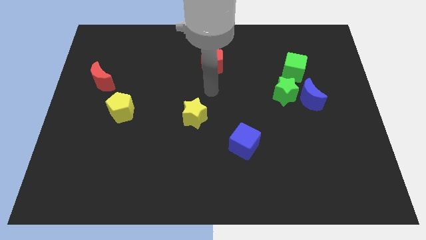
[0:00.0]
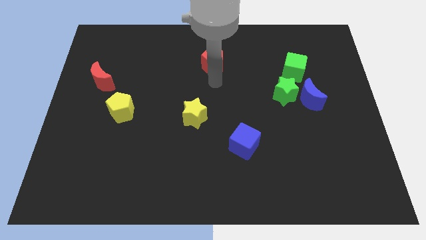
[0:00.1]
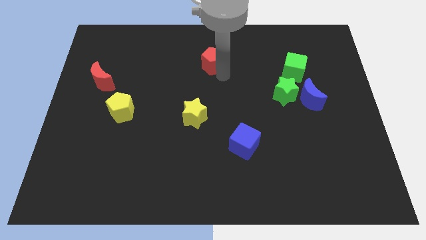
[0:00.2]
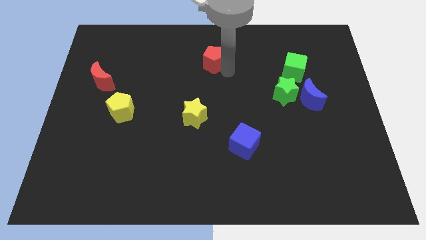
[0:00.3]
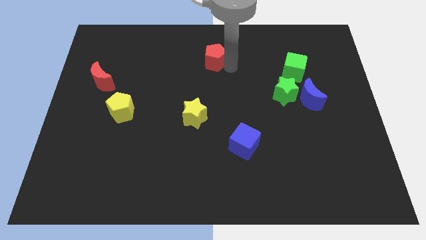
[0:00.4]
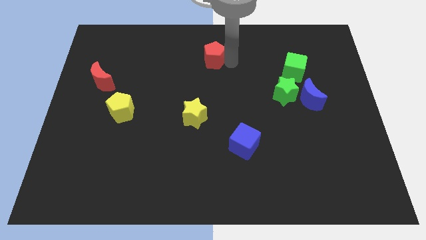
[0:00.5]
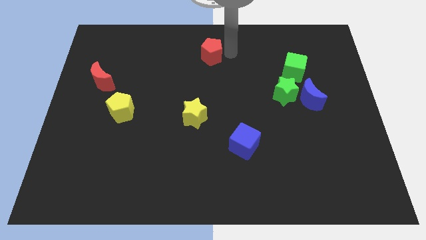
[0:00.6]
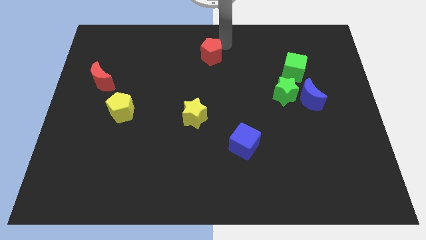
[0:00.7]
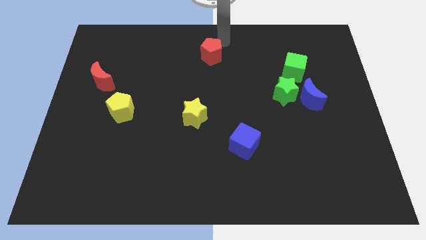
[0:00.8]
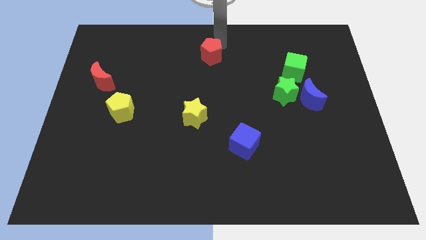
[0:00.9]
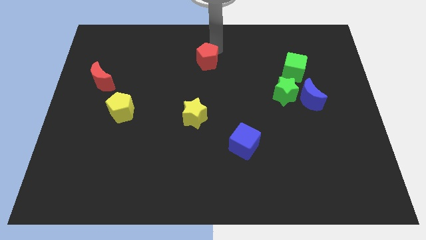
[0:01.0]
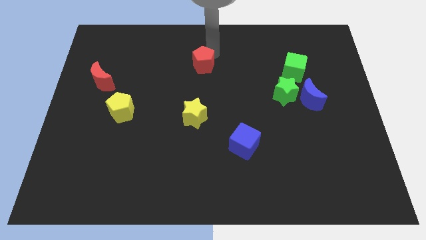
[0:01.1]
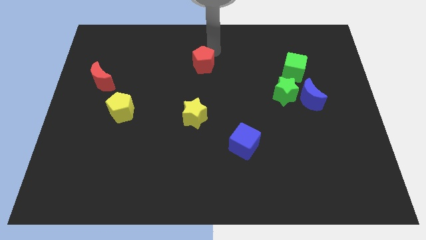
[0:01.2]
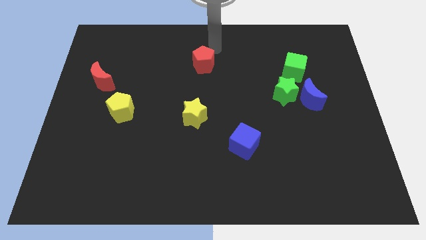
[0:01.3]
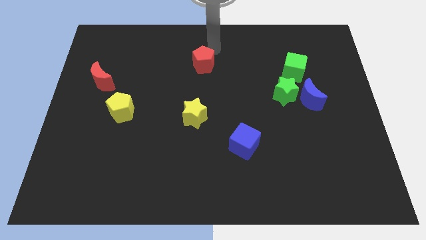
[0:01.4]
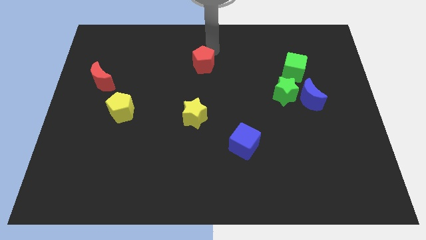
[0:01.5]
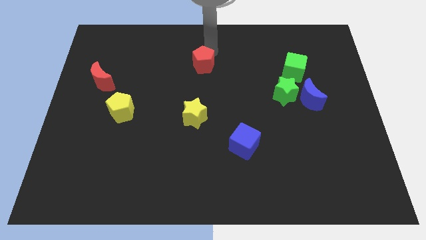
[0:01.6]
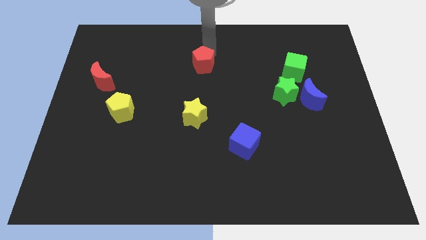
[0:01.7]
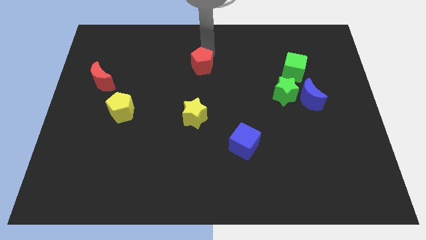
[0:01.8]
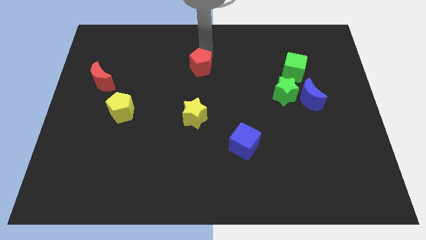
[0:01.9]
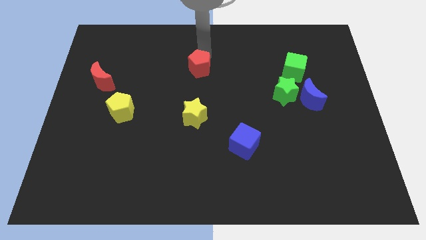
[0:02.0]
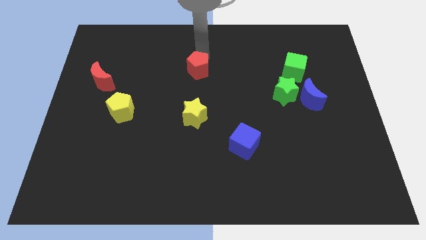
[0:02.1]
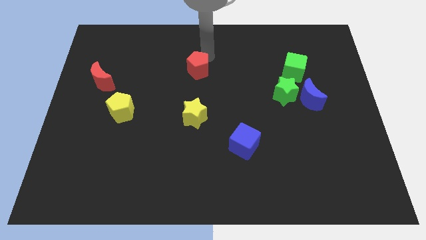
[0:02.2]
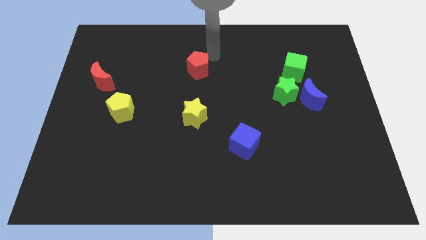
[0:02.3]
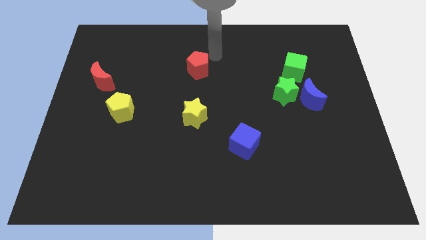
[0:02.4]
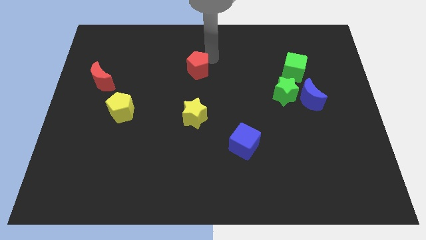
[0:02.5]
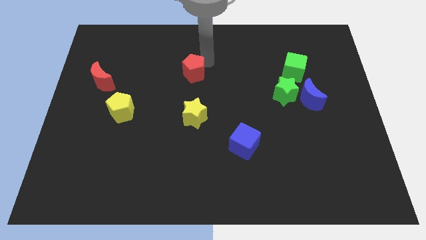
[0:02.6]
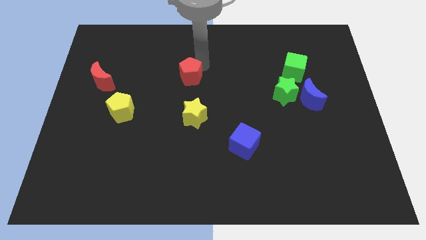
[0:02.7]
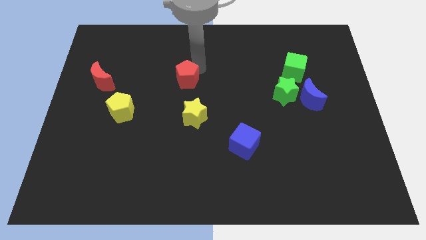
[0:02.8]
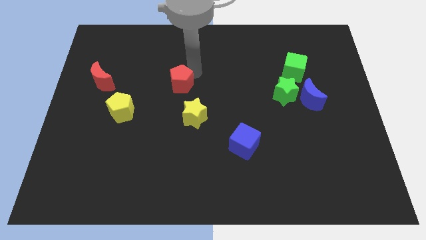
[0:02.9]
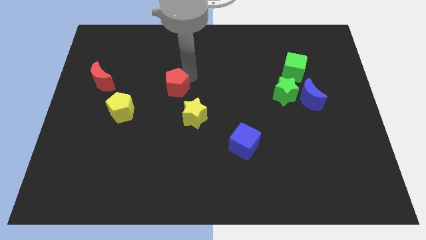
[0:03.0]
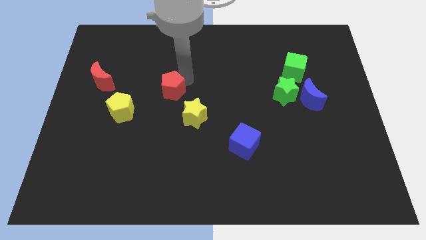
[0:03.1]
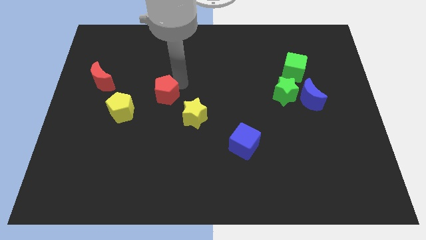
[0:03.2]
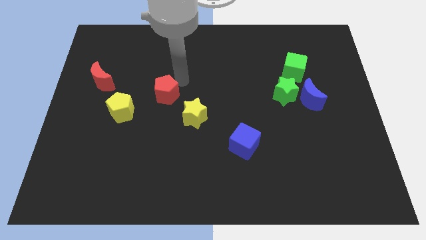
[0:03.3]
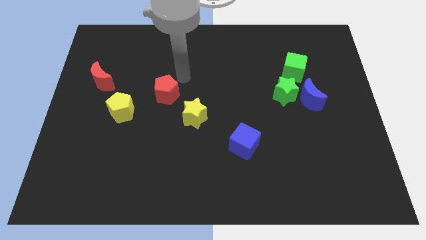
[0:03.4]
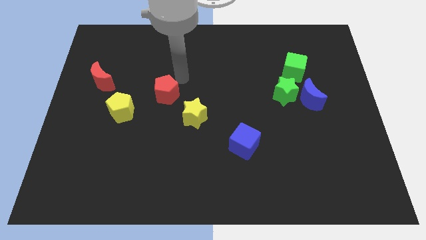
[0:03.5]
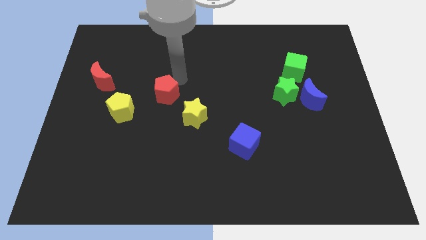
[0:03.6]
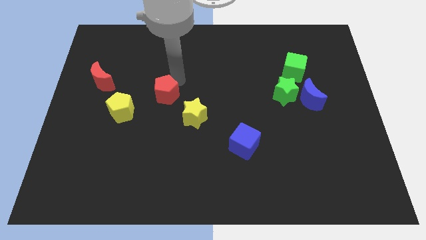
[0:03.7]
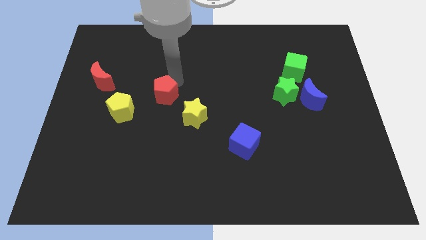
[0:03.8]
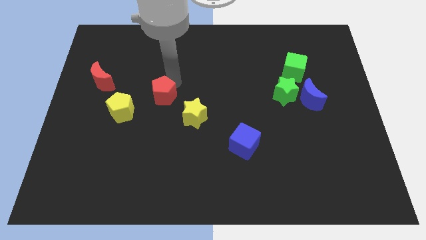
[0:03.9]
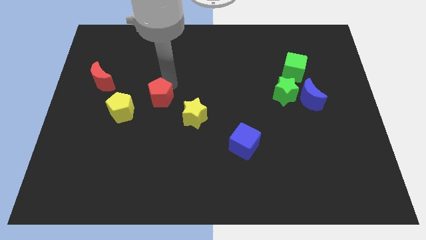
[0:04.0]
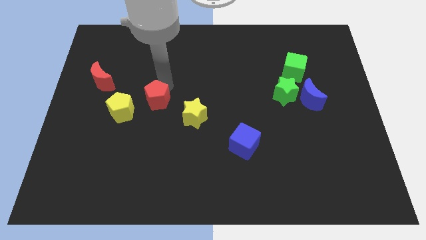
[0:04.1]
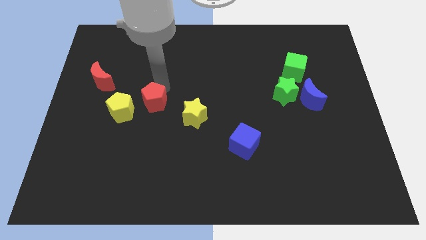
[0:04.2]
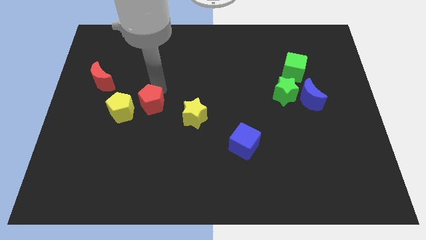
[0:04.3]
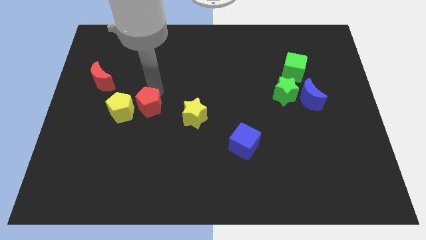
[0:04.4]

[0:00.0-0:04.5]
slide the red pentagon downwards and to the left

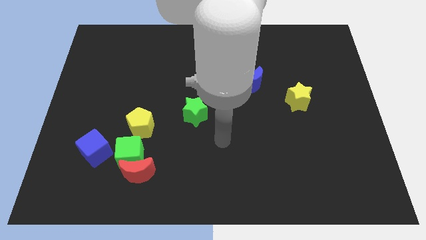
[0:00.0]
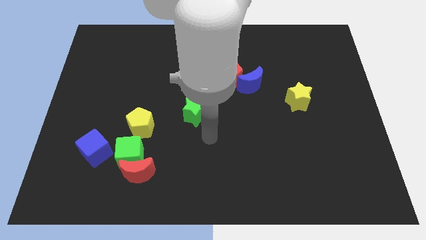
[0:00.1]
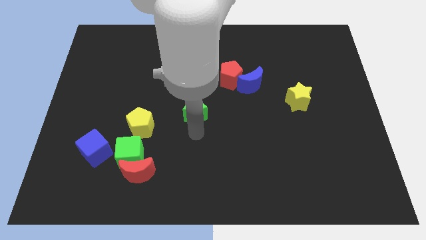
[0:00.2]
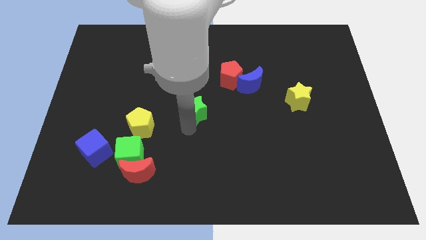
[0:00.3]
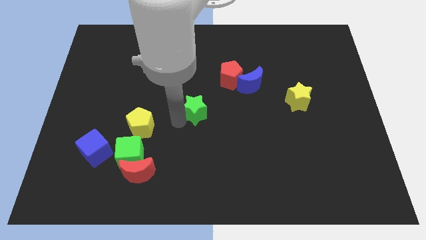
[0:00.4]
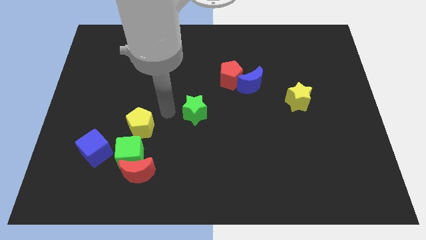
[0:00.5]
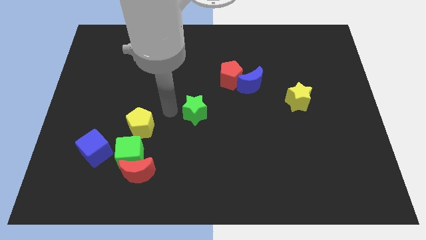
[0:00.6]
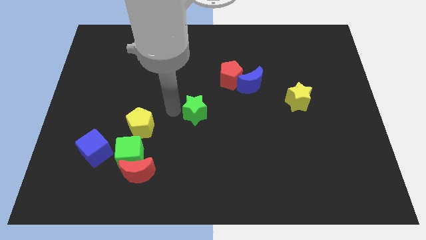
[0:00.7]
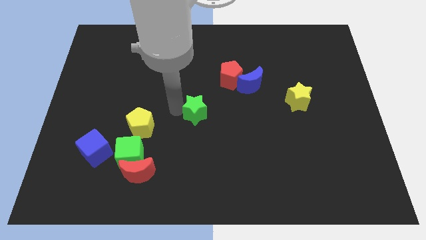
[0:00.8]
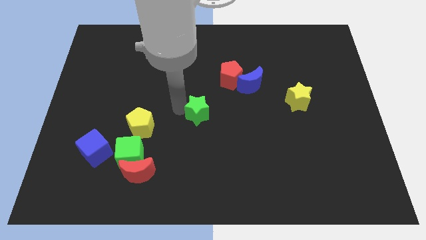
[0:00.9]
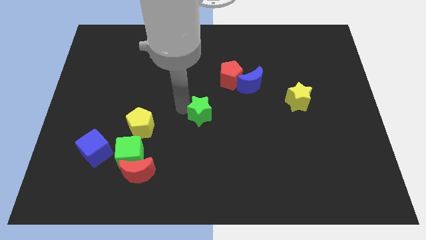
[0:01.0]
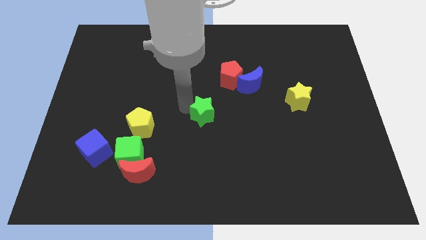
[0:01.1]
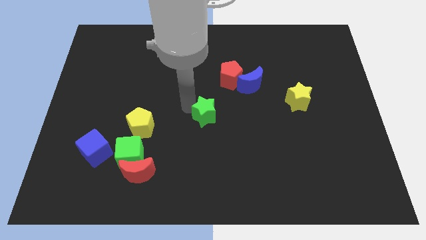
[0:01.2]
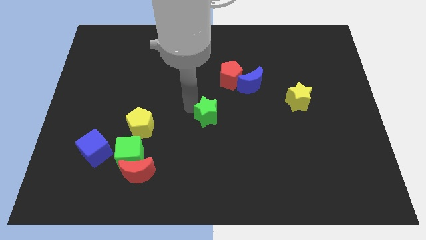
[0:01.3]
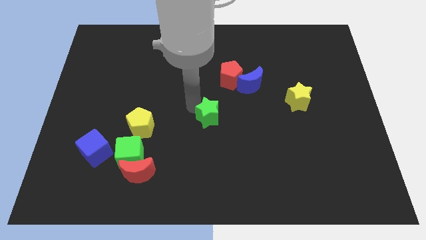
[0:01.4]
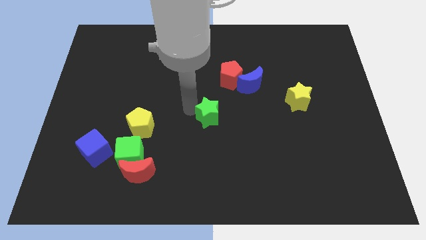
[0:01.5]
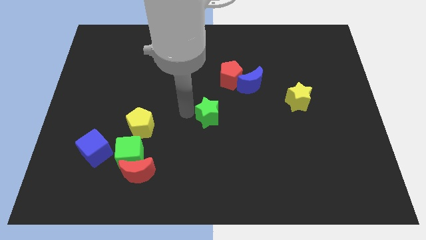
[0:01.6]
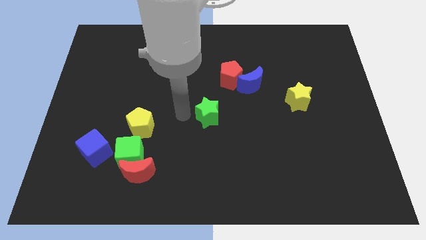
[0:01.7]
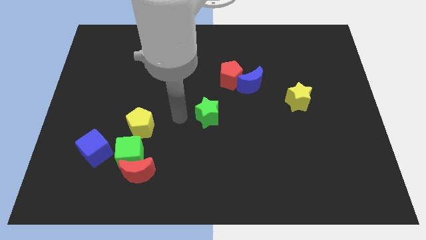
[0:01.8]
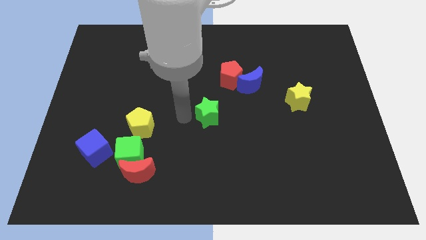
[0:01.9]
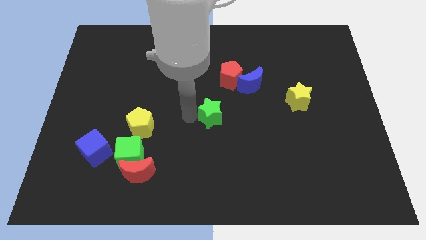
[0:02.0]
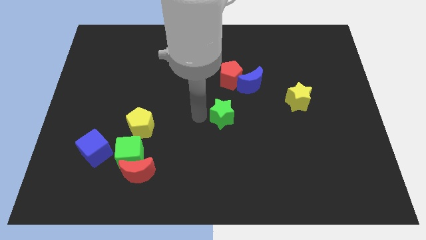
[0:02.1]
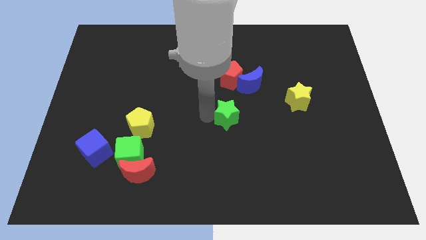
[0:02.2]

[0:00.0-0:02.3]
slightly move the green star right

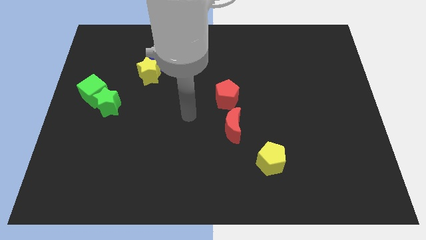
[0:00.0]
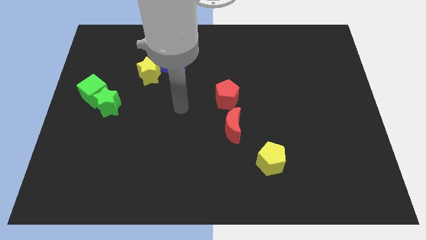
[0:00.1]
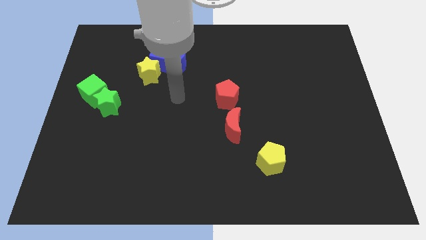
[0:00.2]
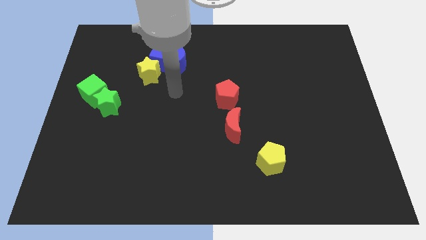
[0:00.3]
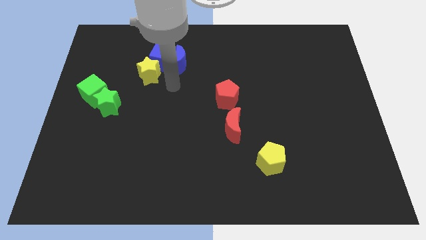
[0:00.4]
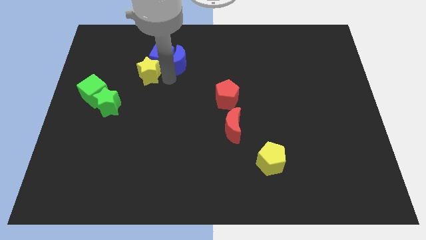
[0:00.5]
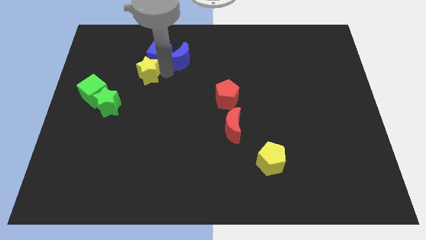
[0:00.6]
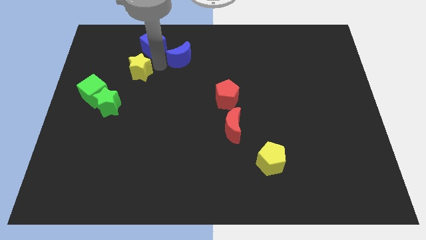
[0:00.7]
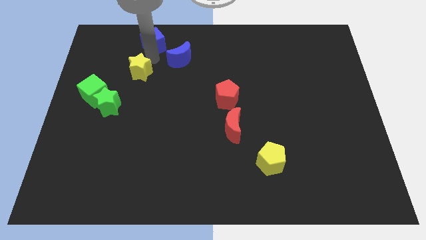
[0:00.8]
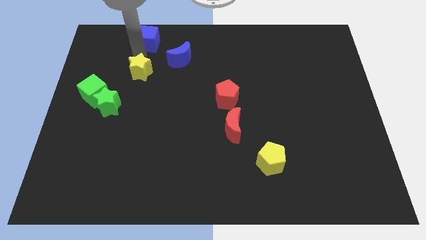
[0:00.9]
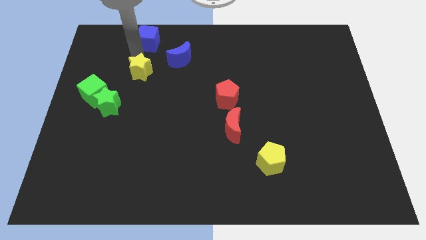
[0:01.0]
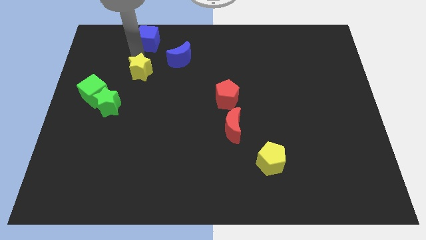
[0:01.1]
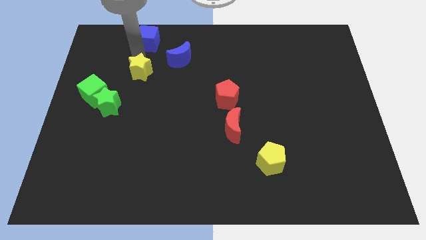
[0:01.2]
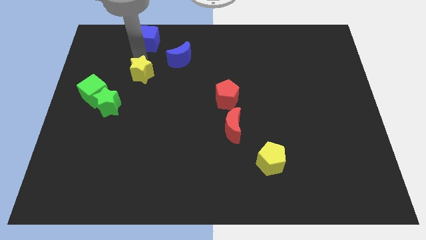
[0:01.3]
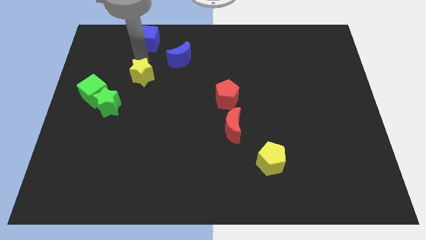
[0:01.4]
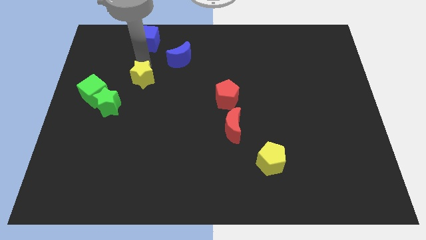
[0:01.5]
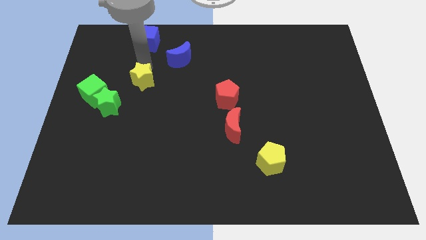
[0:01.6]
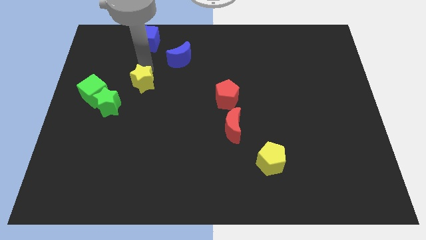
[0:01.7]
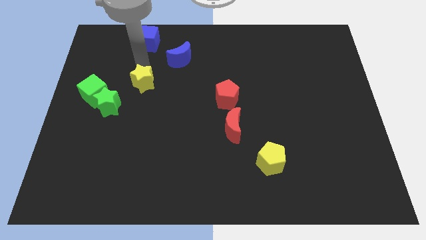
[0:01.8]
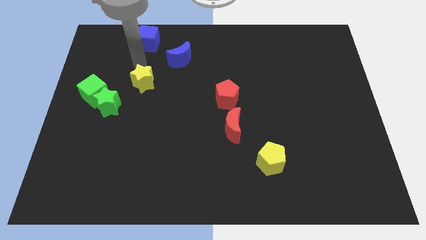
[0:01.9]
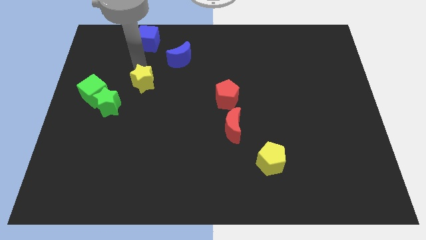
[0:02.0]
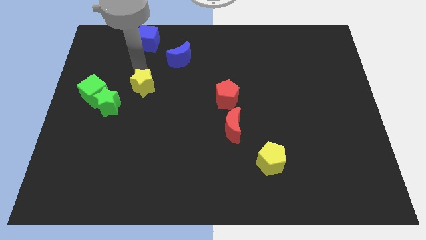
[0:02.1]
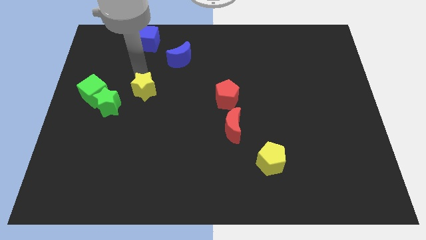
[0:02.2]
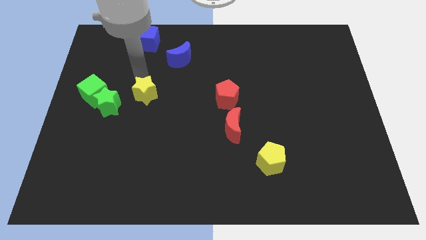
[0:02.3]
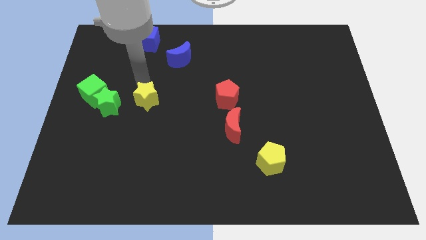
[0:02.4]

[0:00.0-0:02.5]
slightly move the yellow star downwards
